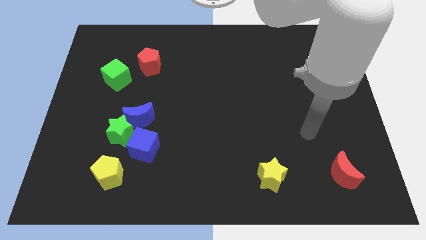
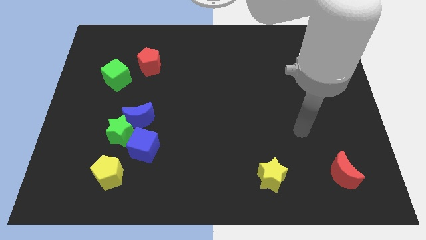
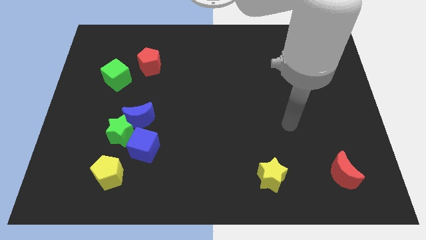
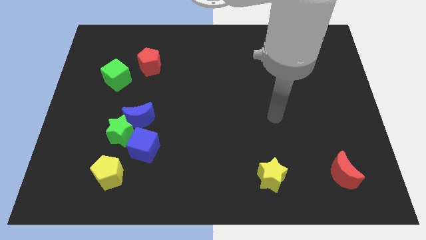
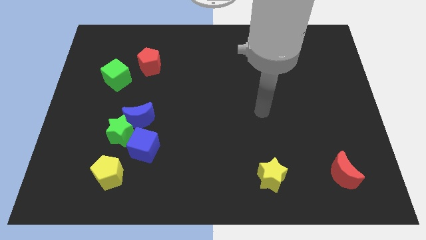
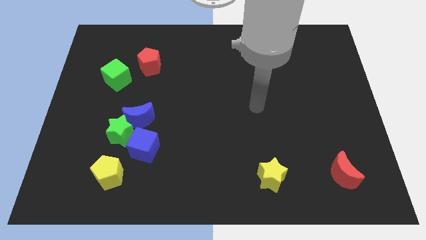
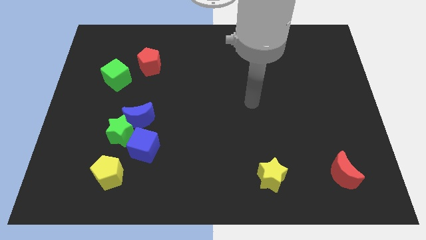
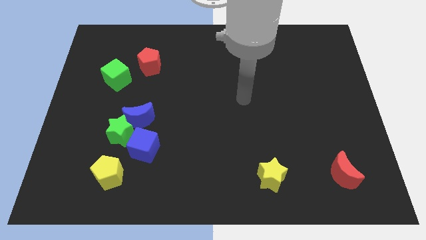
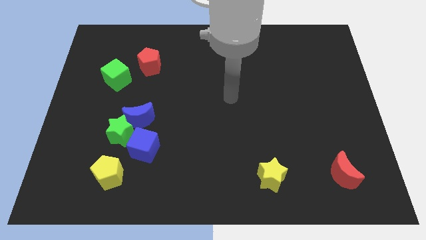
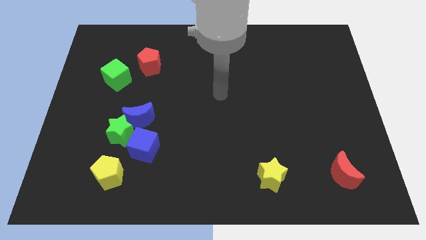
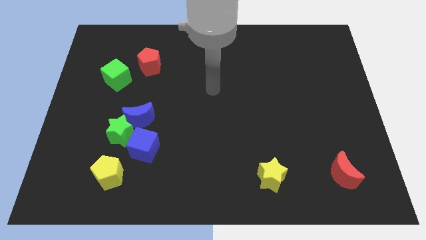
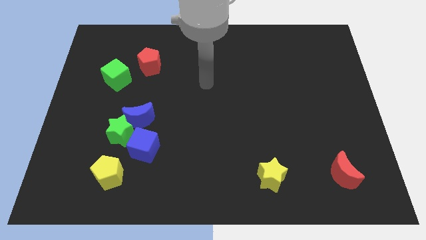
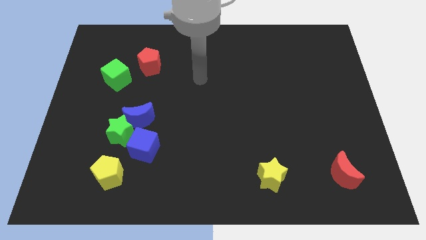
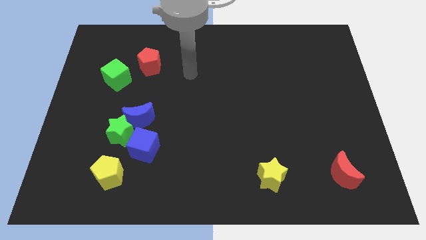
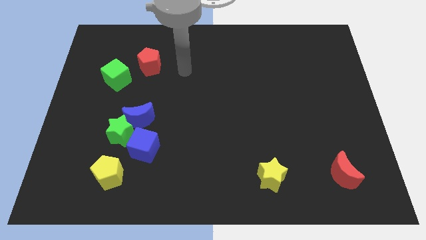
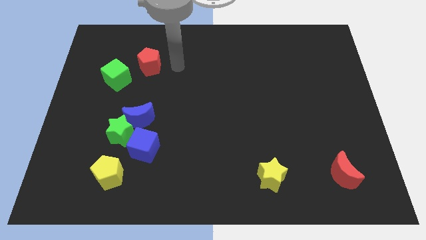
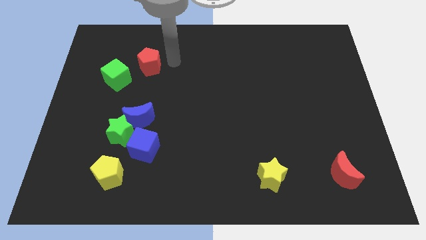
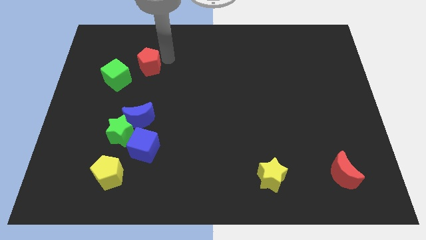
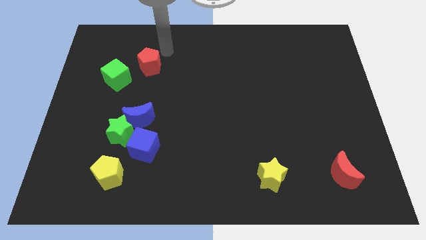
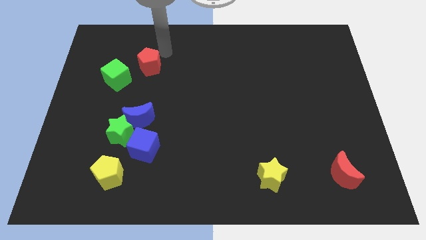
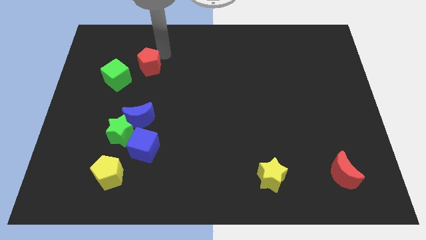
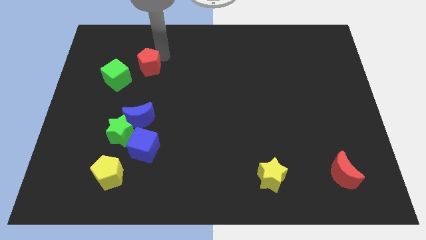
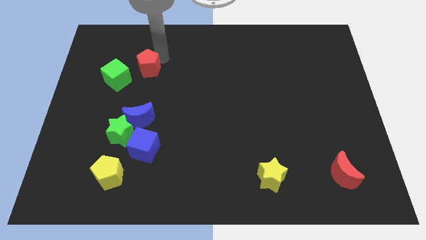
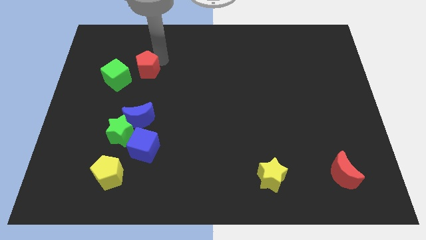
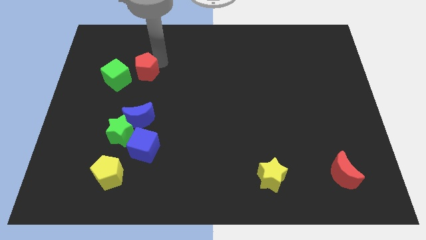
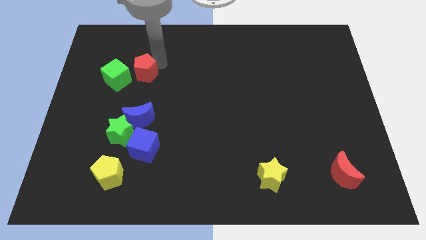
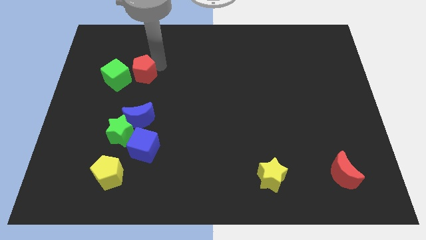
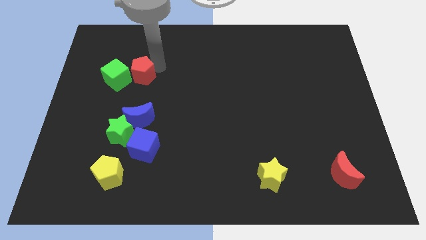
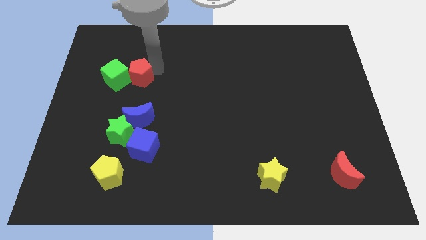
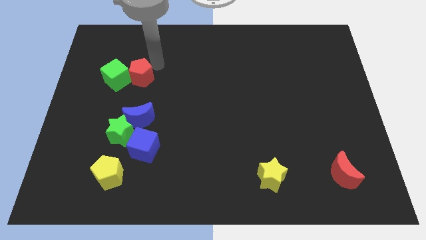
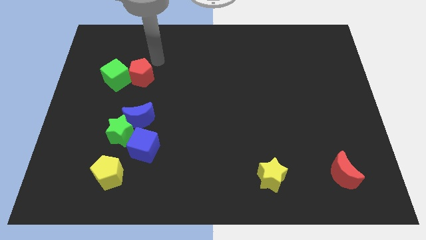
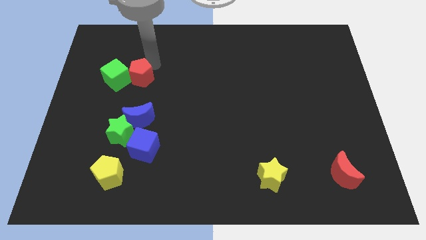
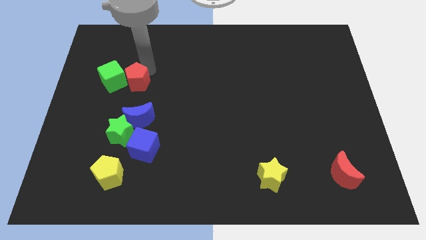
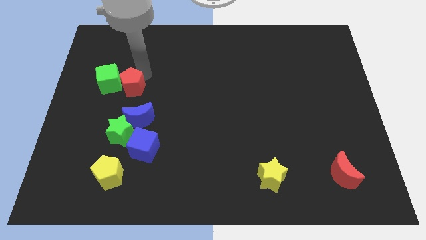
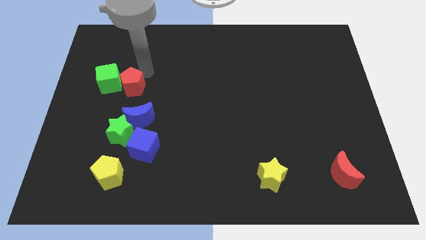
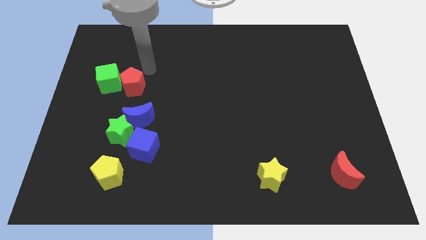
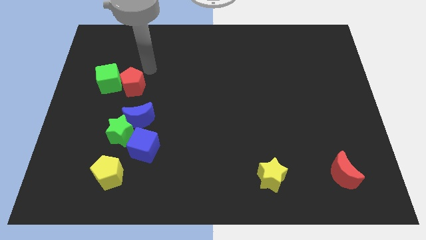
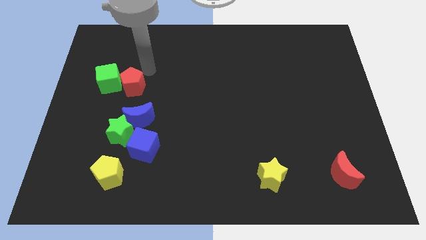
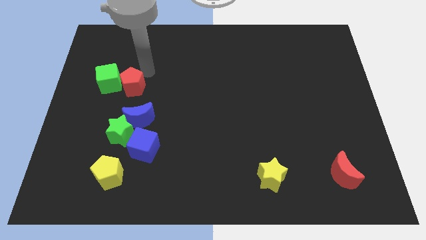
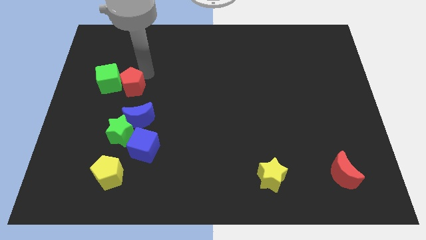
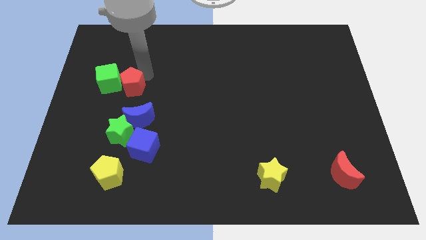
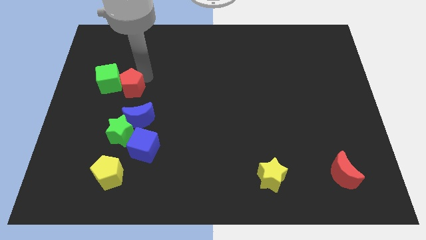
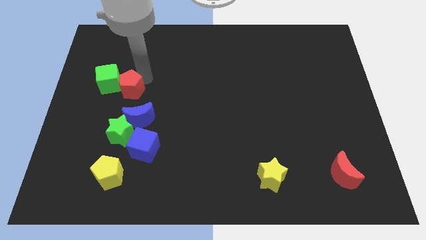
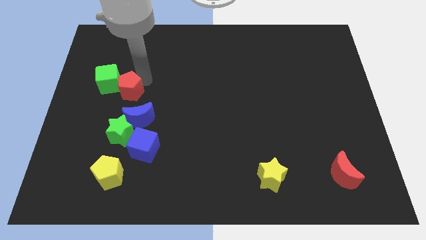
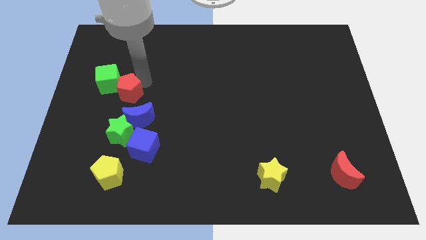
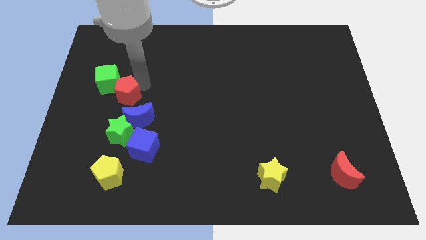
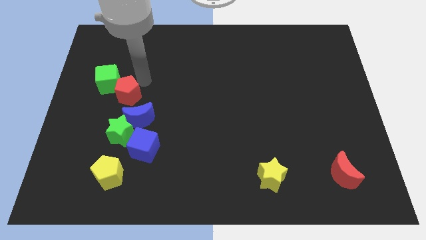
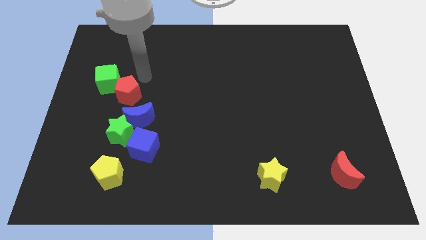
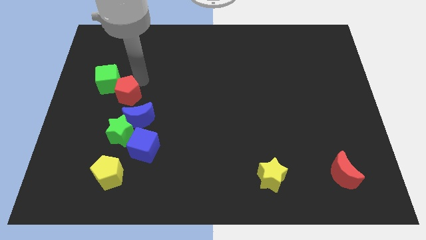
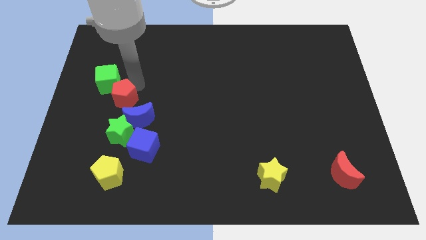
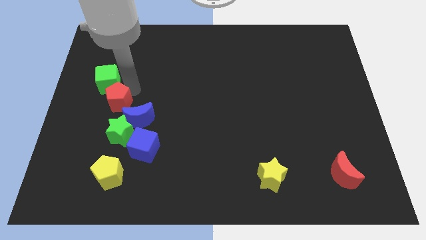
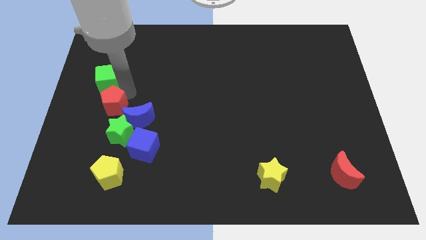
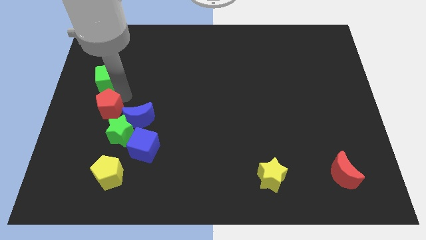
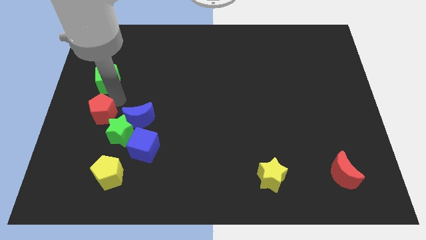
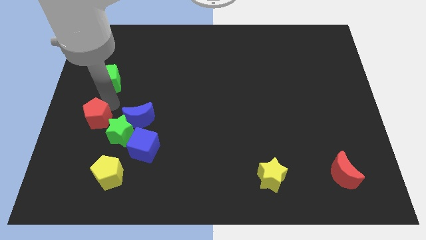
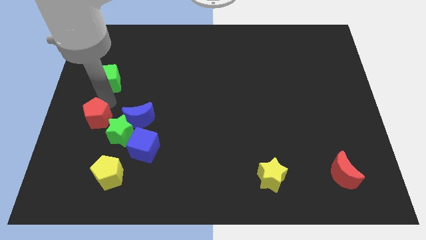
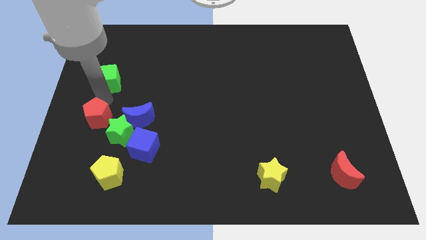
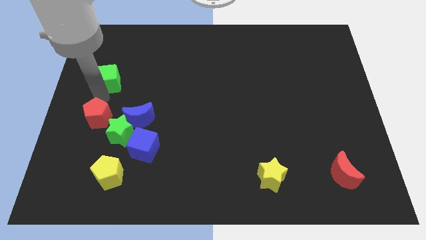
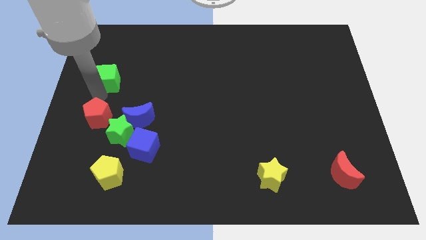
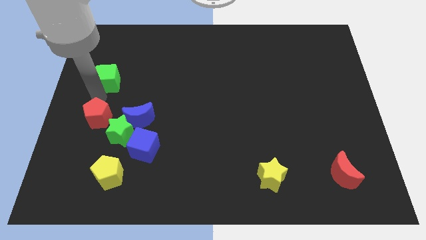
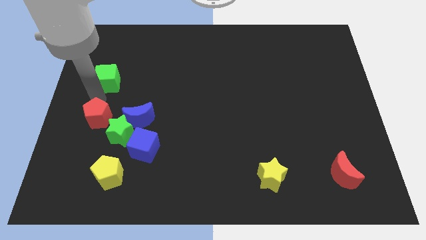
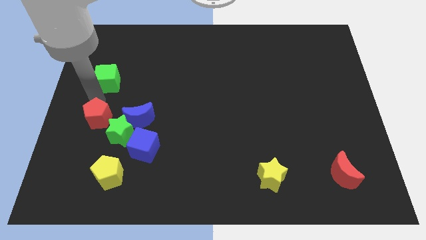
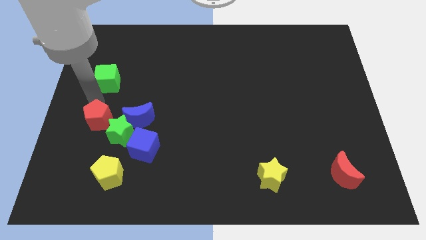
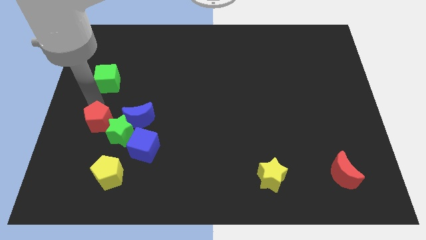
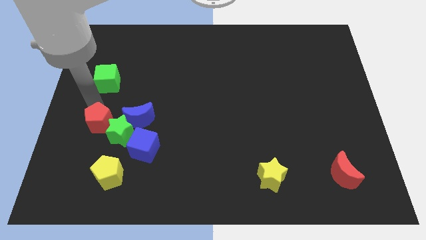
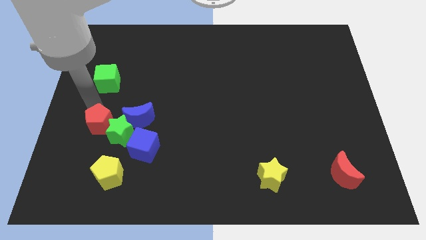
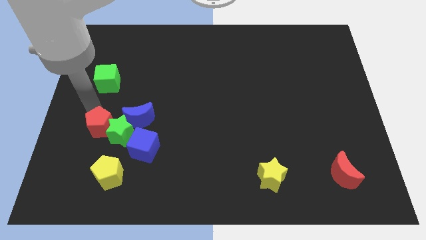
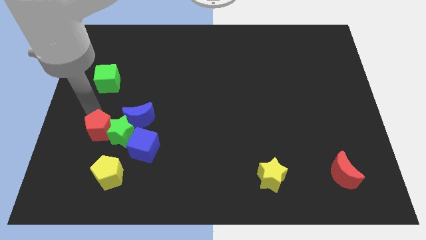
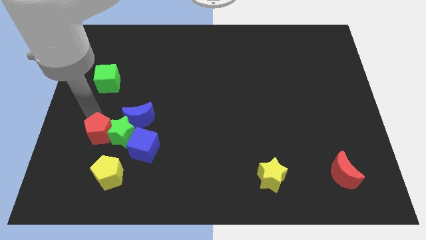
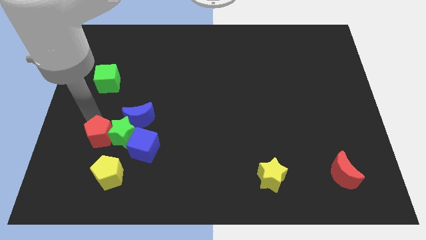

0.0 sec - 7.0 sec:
move the red pentagon to the top left side of the yellow pentagon
